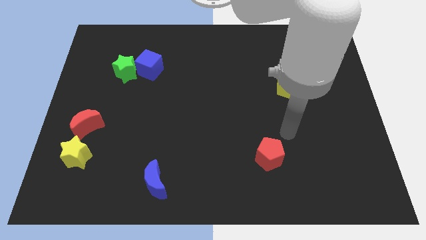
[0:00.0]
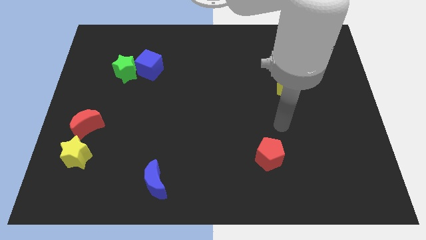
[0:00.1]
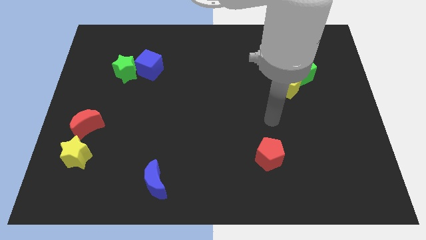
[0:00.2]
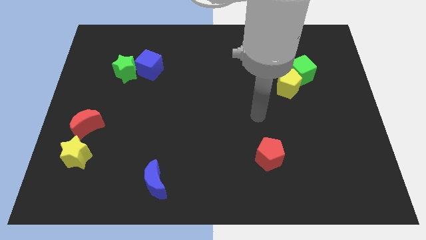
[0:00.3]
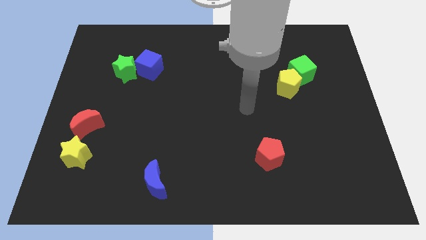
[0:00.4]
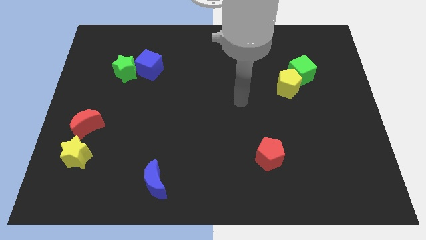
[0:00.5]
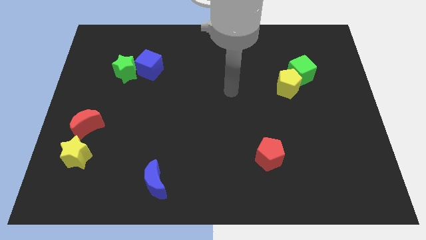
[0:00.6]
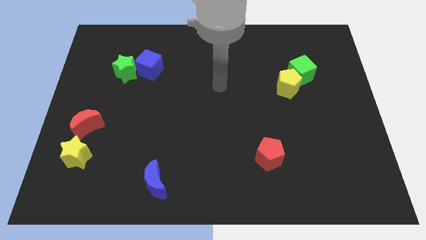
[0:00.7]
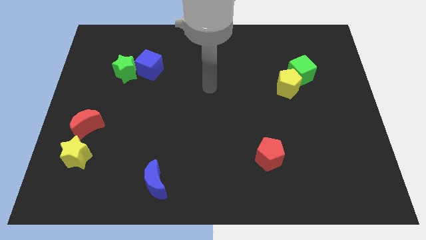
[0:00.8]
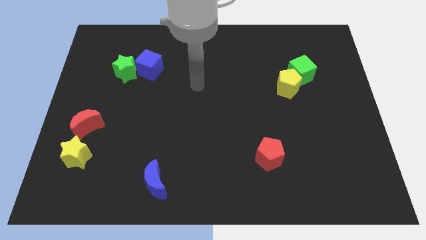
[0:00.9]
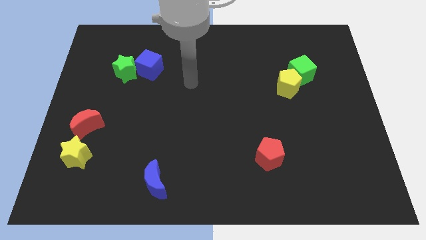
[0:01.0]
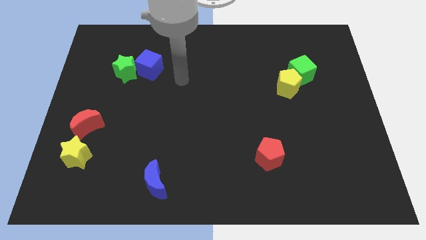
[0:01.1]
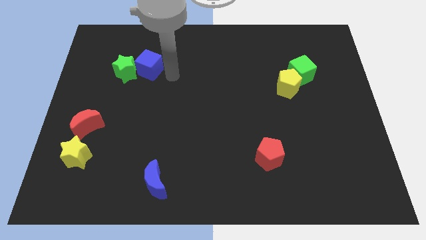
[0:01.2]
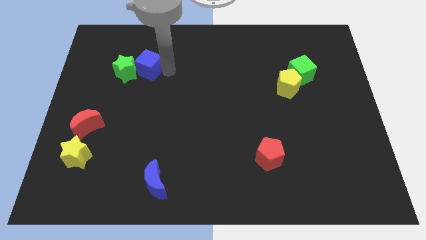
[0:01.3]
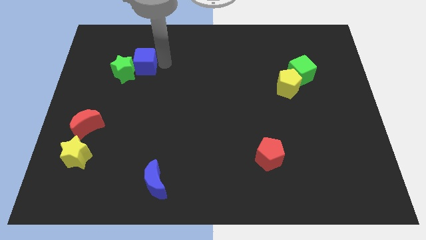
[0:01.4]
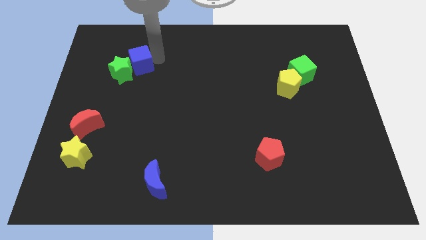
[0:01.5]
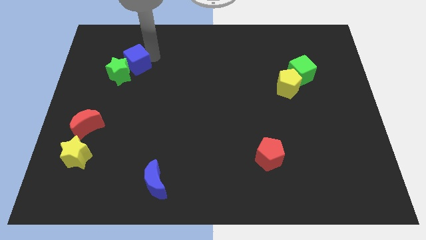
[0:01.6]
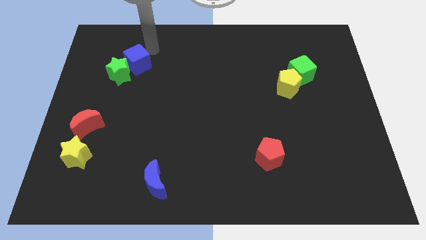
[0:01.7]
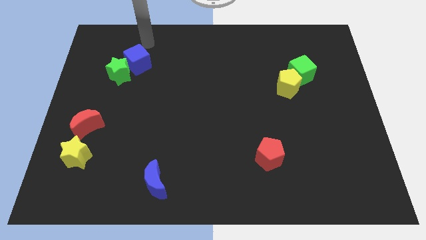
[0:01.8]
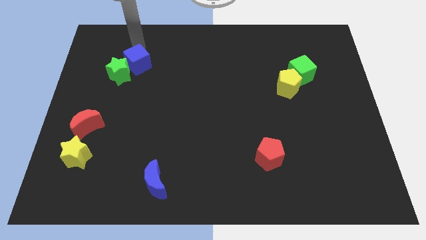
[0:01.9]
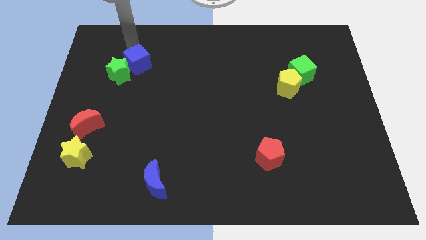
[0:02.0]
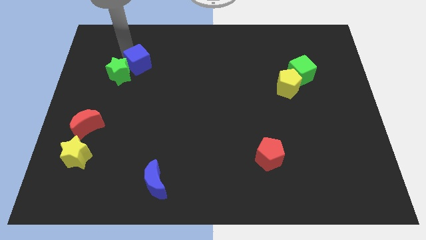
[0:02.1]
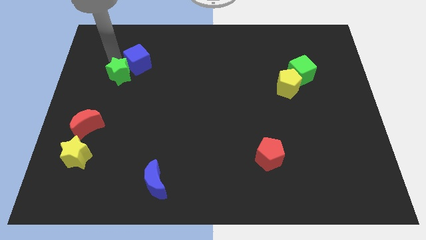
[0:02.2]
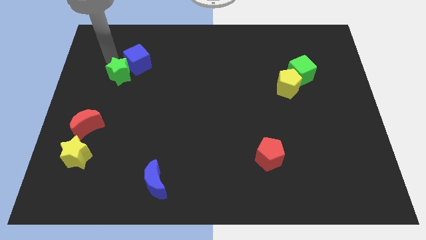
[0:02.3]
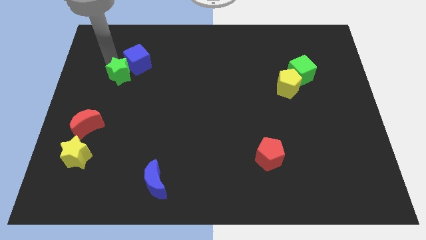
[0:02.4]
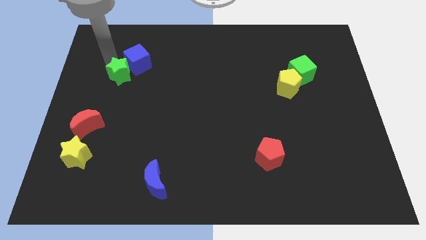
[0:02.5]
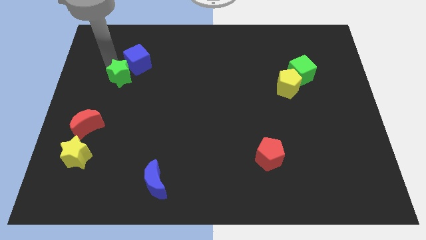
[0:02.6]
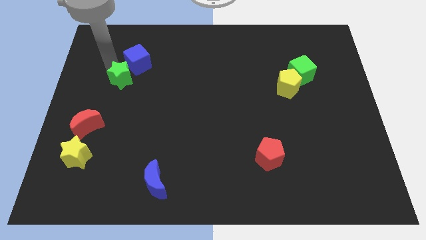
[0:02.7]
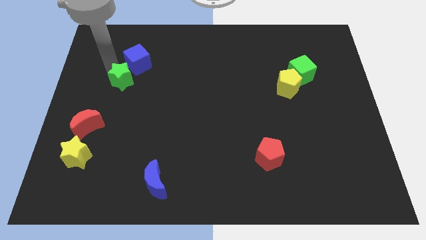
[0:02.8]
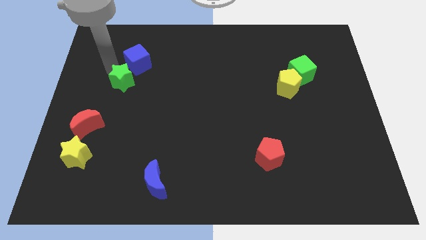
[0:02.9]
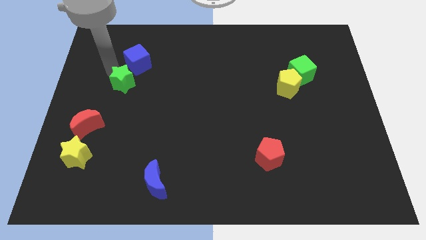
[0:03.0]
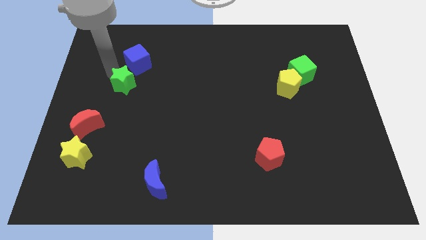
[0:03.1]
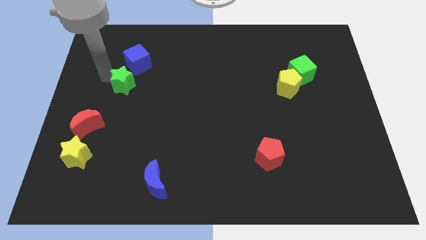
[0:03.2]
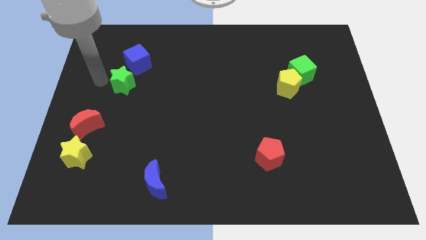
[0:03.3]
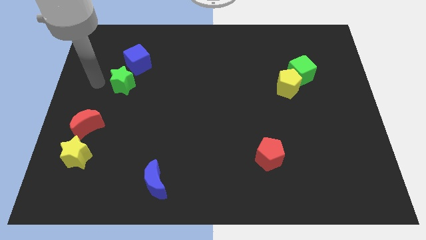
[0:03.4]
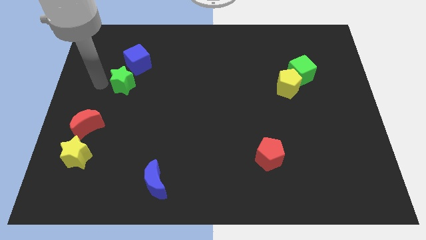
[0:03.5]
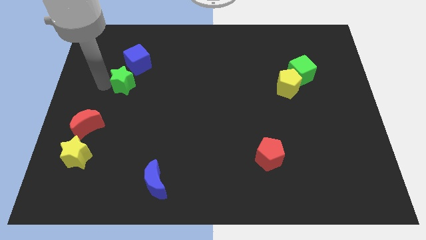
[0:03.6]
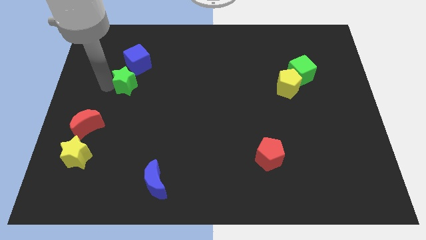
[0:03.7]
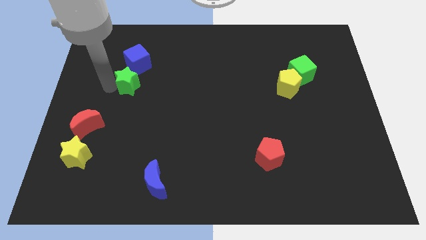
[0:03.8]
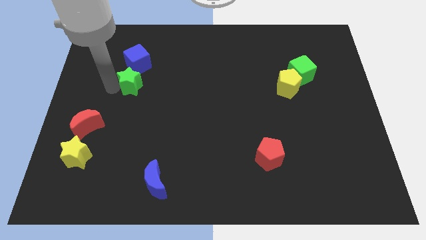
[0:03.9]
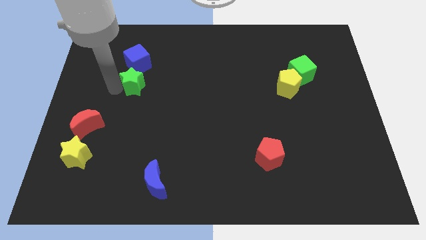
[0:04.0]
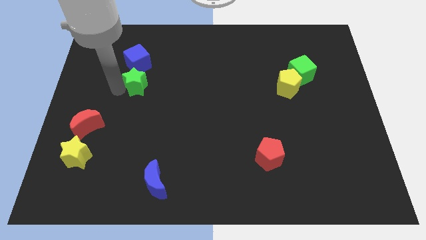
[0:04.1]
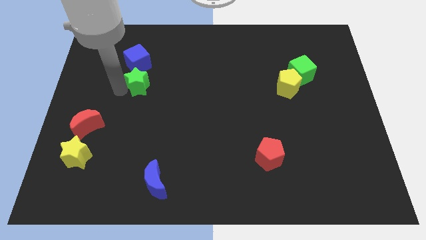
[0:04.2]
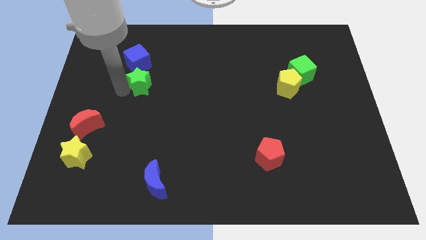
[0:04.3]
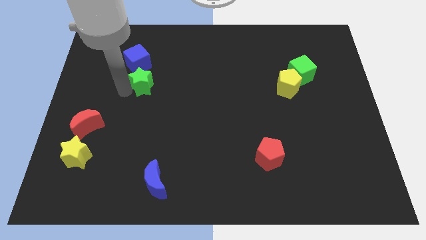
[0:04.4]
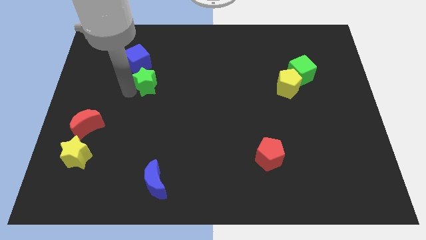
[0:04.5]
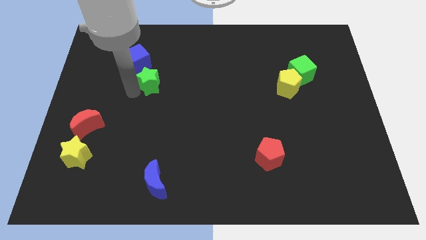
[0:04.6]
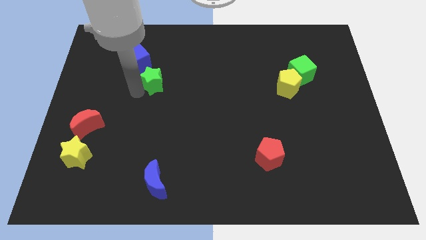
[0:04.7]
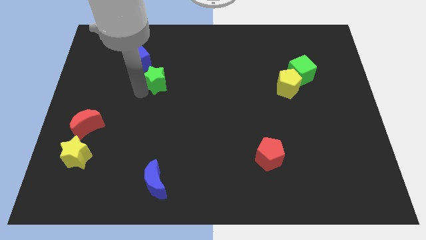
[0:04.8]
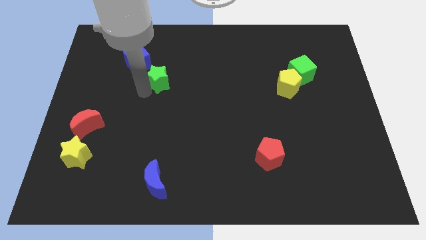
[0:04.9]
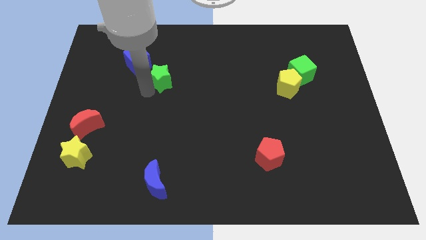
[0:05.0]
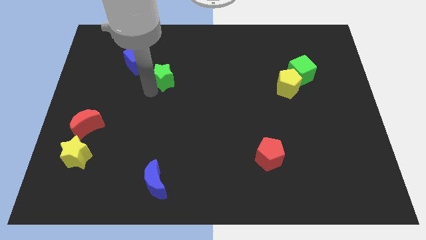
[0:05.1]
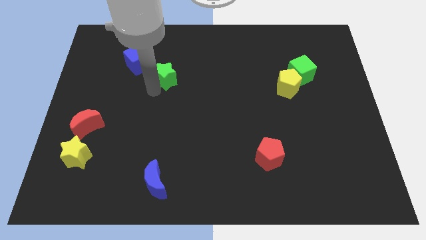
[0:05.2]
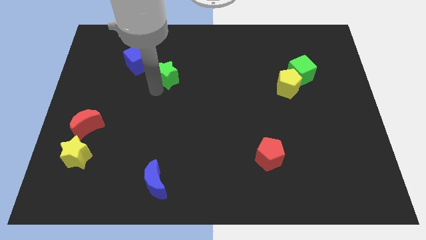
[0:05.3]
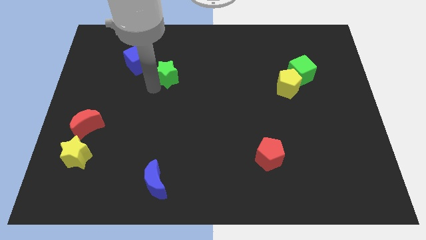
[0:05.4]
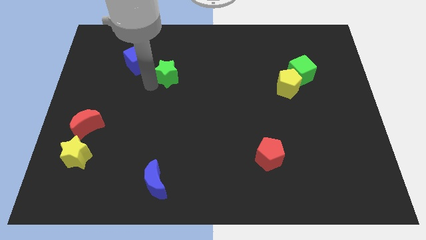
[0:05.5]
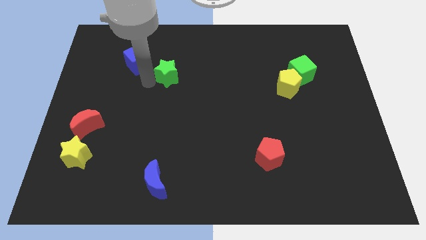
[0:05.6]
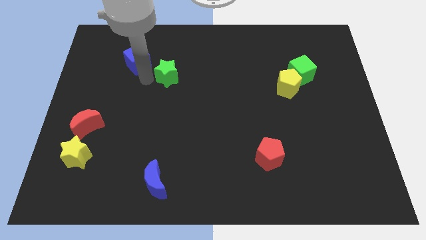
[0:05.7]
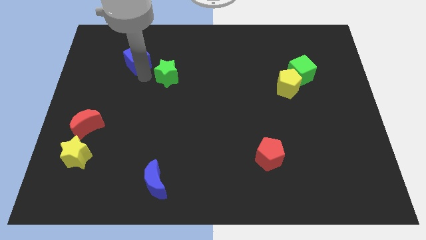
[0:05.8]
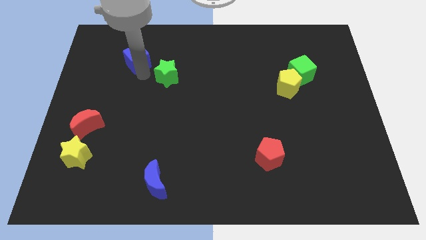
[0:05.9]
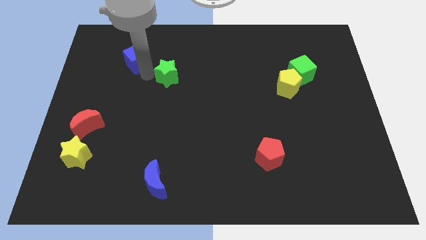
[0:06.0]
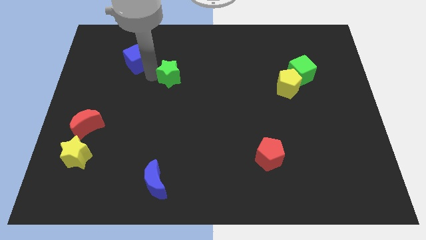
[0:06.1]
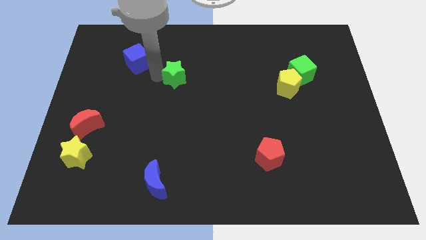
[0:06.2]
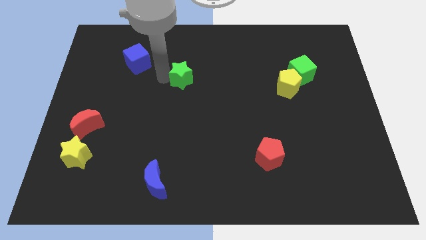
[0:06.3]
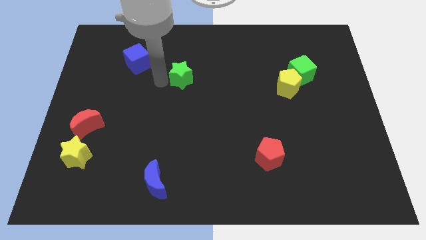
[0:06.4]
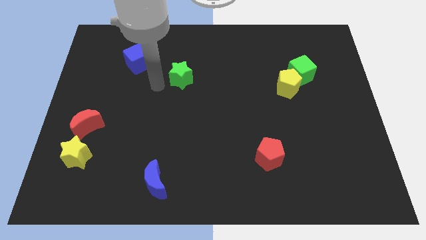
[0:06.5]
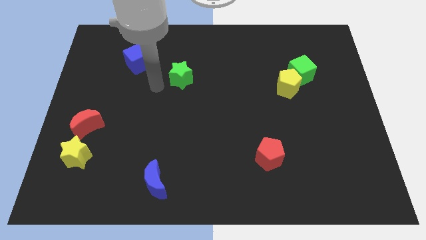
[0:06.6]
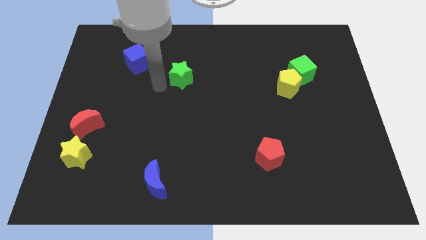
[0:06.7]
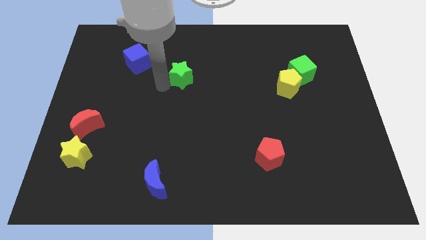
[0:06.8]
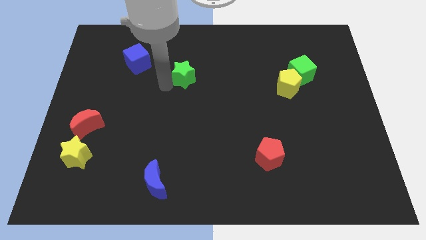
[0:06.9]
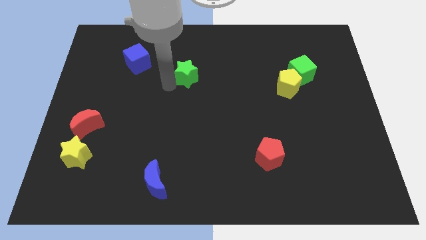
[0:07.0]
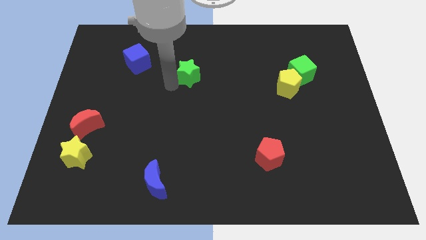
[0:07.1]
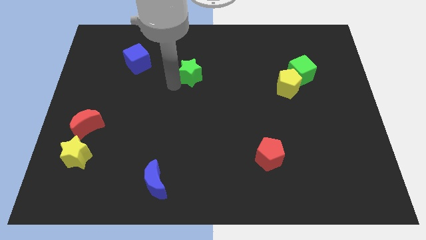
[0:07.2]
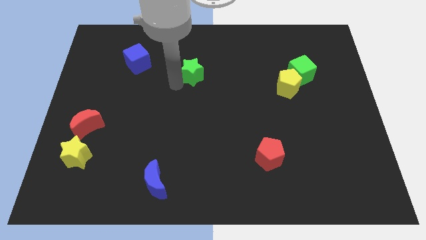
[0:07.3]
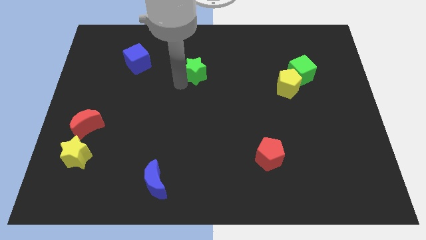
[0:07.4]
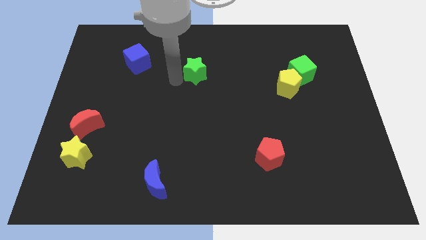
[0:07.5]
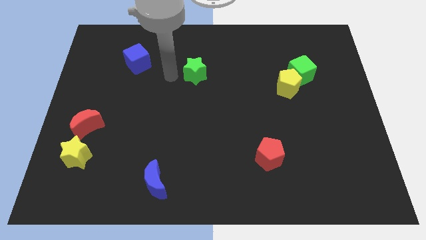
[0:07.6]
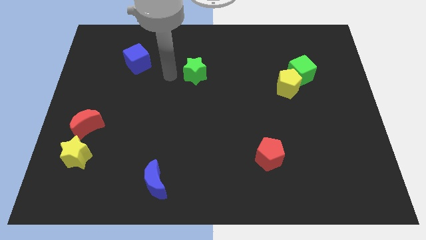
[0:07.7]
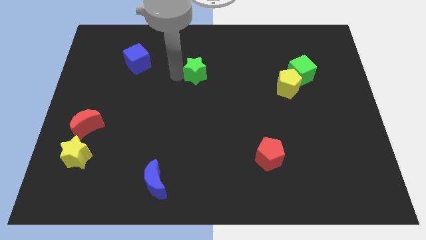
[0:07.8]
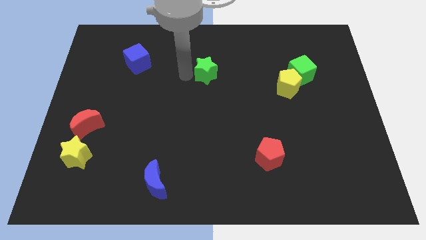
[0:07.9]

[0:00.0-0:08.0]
push the green star right
